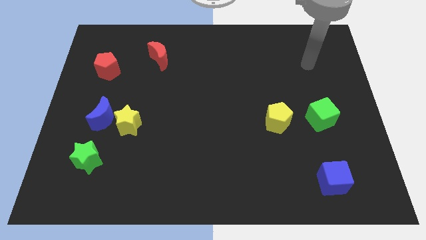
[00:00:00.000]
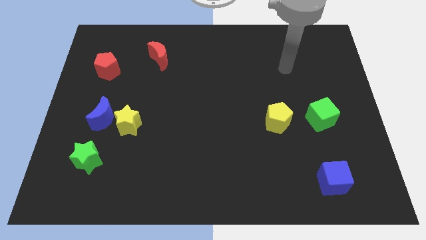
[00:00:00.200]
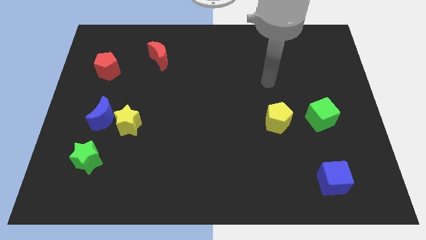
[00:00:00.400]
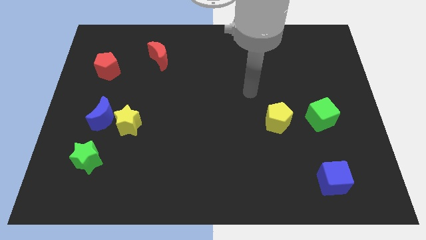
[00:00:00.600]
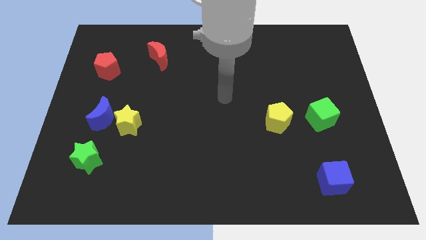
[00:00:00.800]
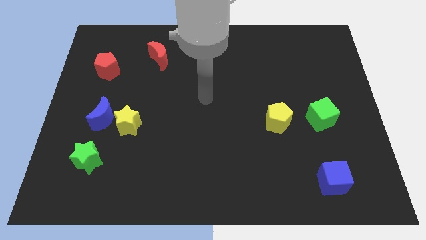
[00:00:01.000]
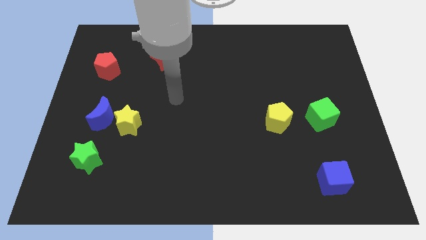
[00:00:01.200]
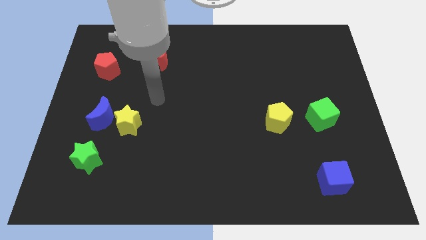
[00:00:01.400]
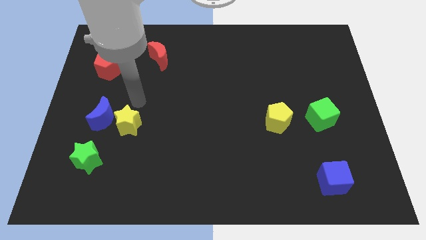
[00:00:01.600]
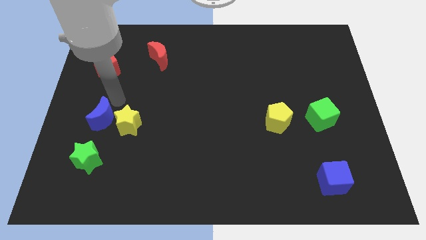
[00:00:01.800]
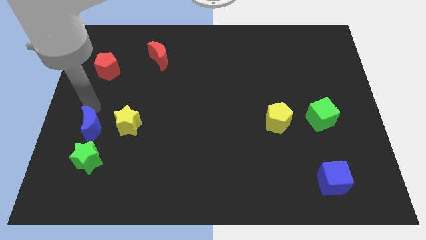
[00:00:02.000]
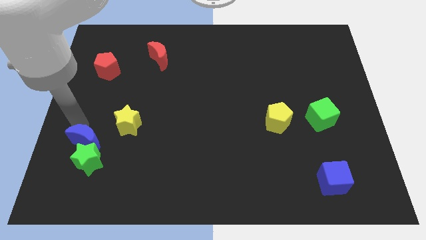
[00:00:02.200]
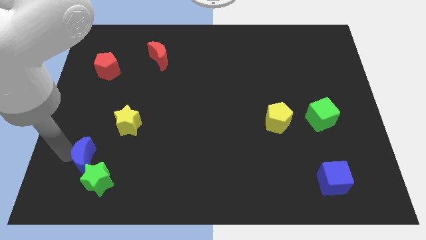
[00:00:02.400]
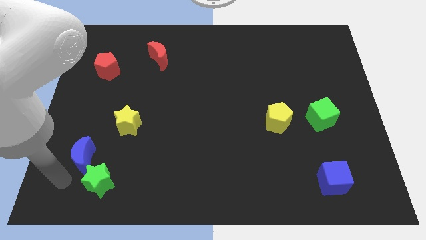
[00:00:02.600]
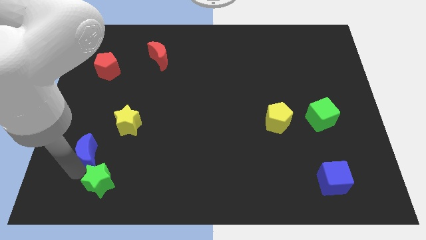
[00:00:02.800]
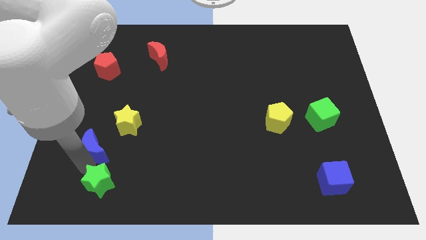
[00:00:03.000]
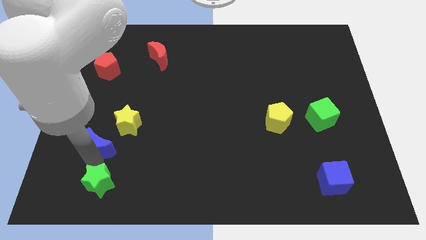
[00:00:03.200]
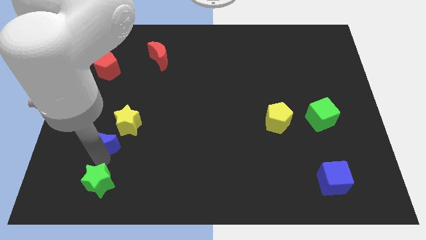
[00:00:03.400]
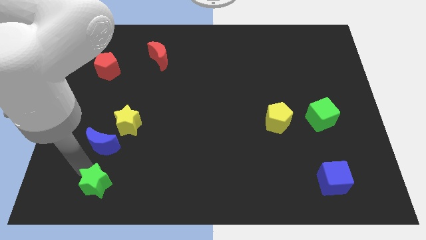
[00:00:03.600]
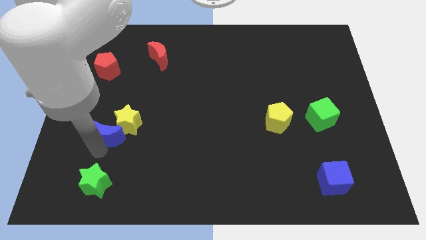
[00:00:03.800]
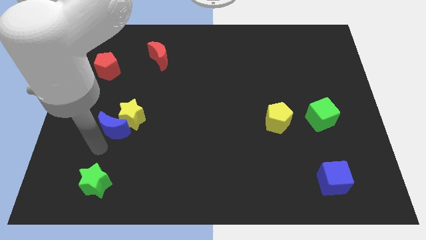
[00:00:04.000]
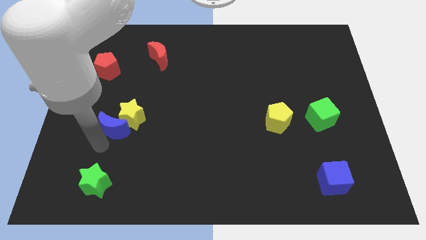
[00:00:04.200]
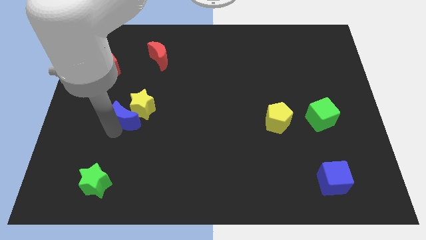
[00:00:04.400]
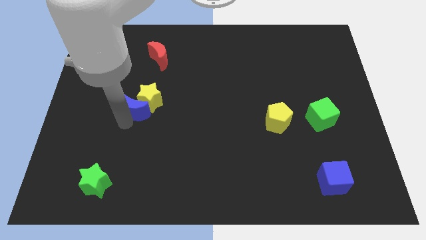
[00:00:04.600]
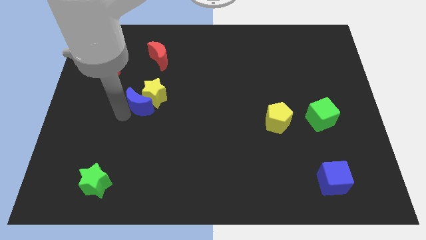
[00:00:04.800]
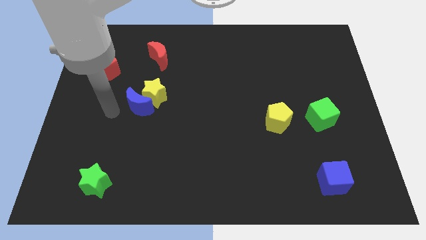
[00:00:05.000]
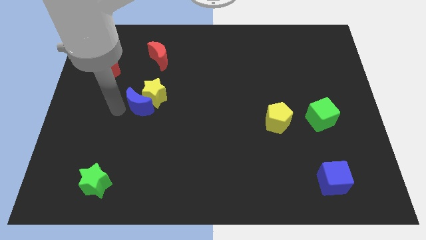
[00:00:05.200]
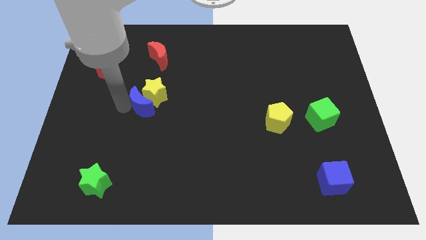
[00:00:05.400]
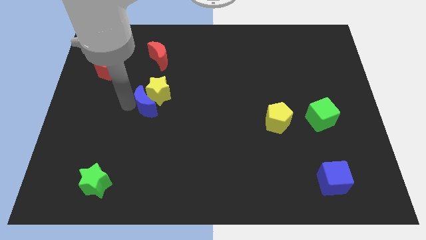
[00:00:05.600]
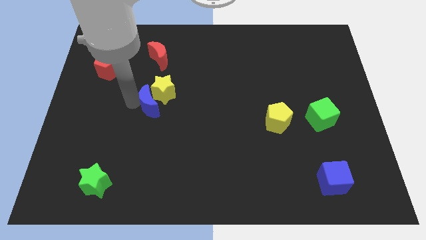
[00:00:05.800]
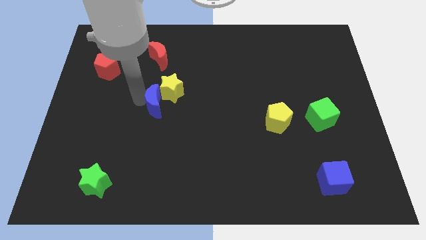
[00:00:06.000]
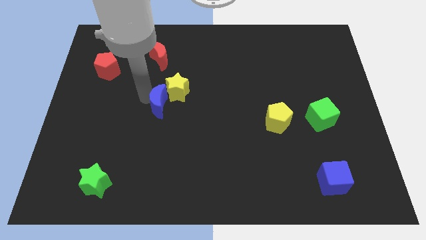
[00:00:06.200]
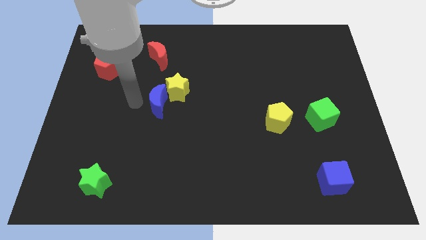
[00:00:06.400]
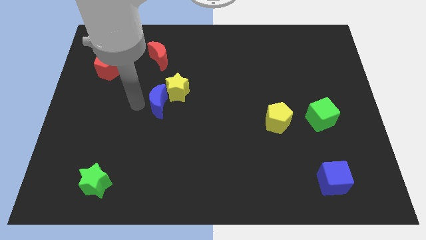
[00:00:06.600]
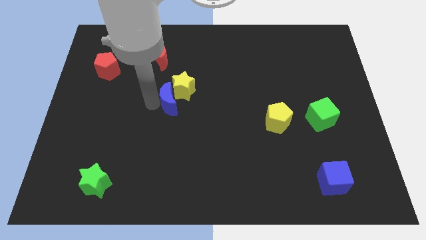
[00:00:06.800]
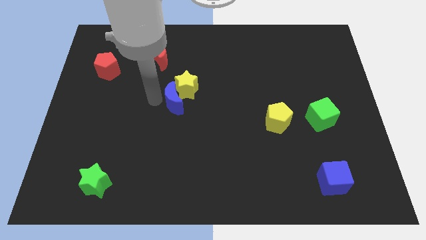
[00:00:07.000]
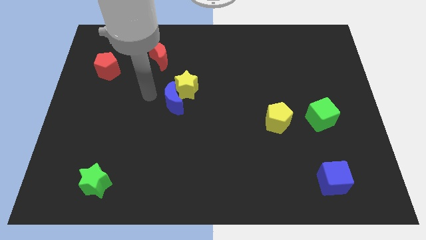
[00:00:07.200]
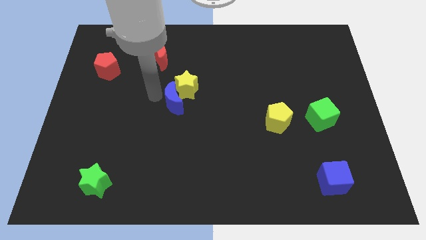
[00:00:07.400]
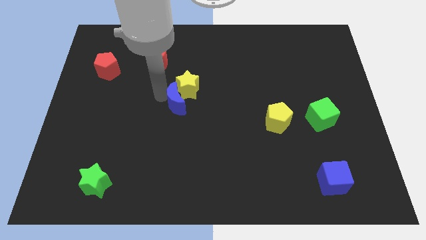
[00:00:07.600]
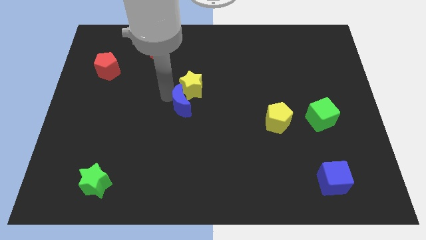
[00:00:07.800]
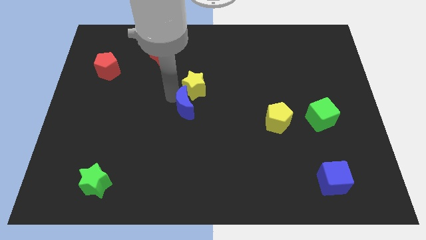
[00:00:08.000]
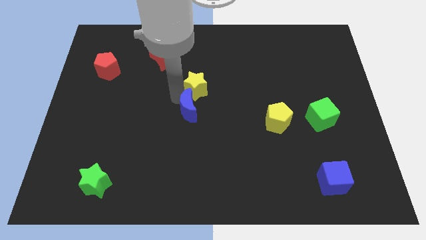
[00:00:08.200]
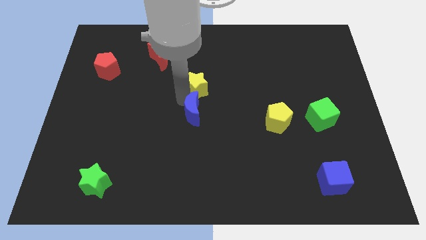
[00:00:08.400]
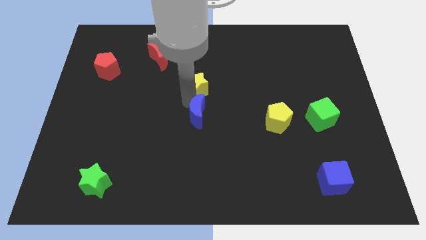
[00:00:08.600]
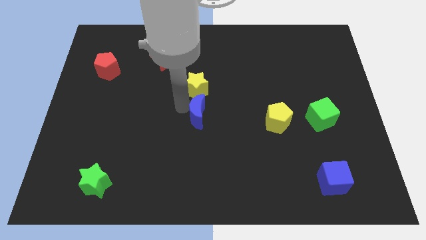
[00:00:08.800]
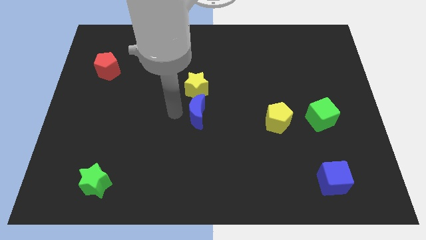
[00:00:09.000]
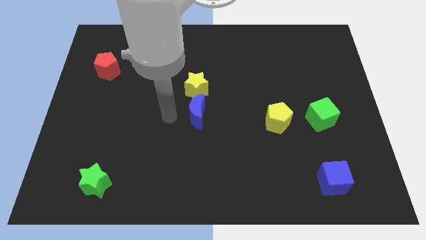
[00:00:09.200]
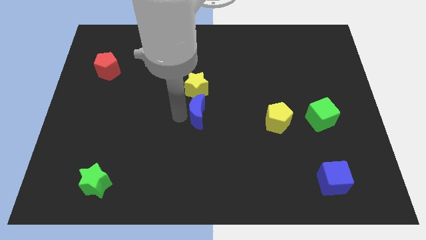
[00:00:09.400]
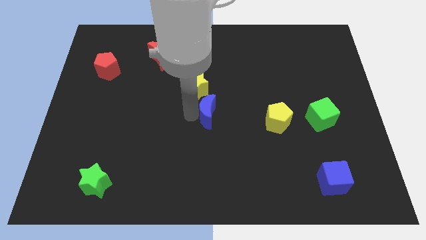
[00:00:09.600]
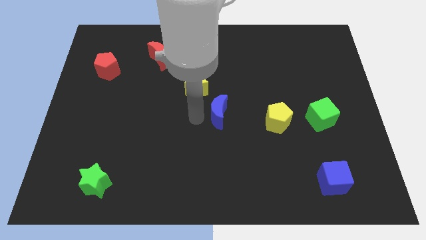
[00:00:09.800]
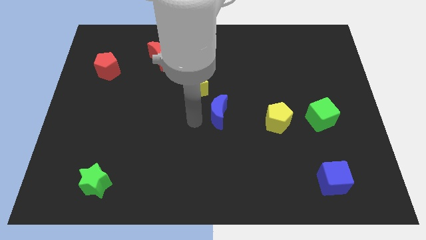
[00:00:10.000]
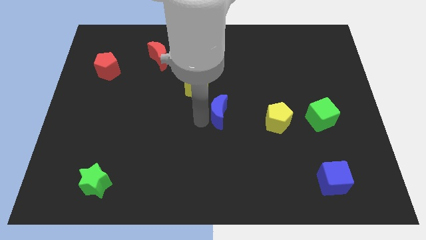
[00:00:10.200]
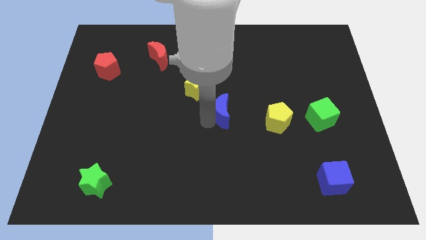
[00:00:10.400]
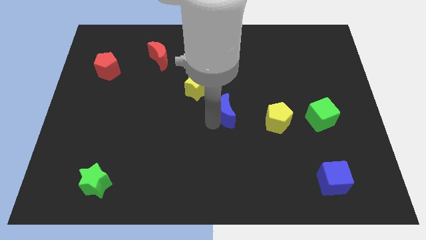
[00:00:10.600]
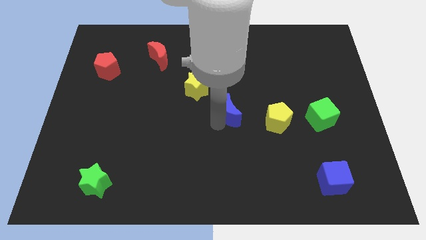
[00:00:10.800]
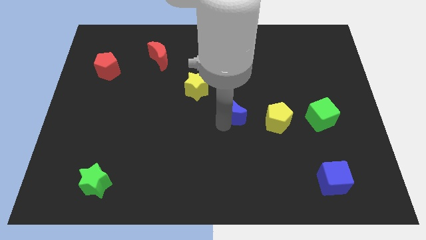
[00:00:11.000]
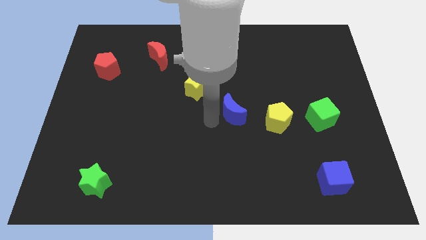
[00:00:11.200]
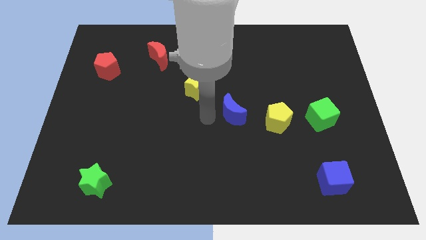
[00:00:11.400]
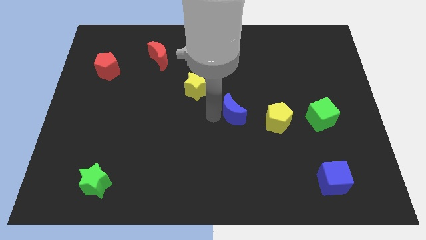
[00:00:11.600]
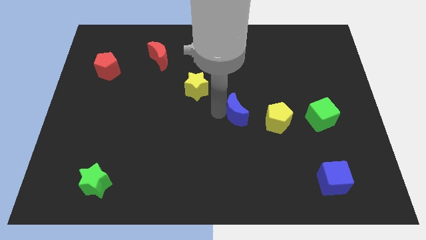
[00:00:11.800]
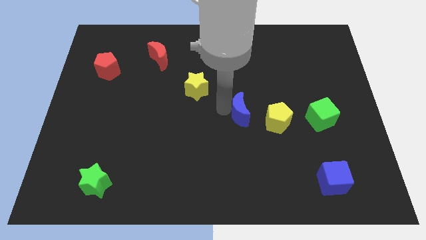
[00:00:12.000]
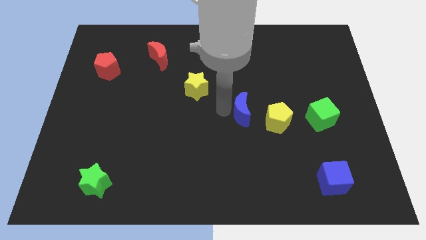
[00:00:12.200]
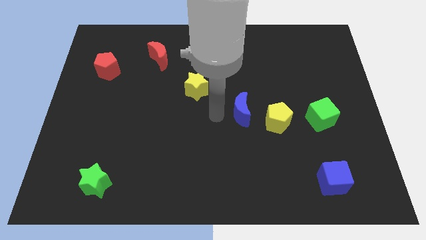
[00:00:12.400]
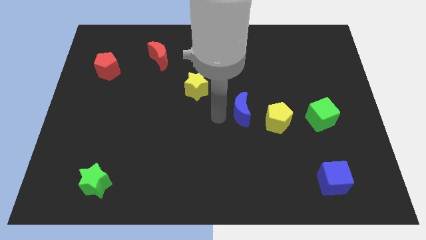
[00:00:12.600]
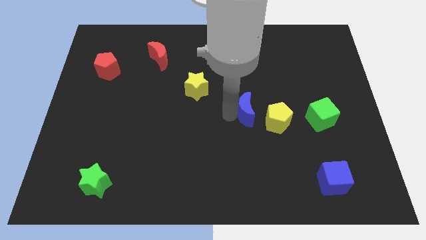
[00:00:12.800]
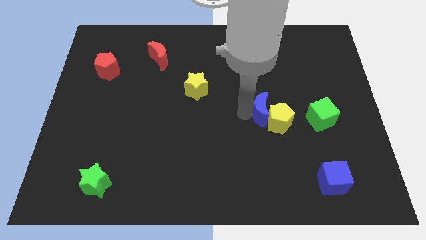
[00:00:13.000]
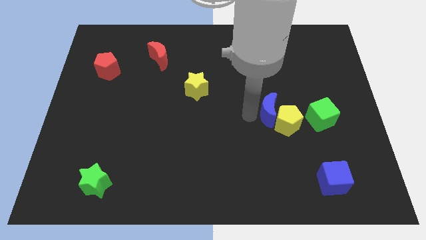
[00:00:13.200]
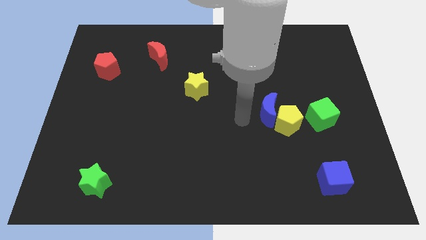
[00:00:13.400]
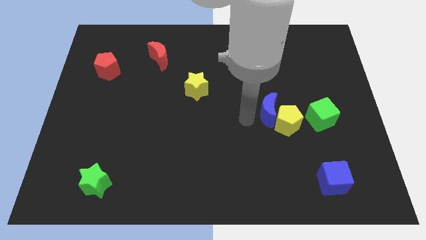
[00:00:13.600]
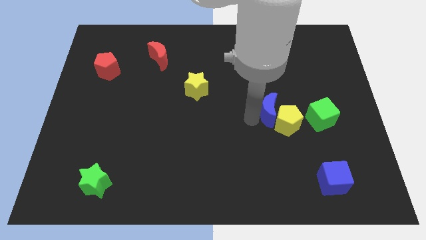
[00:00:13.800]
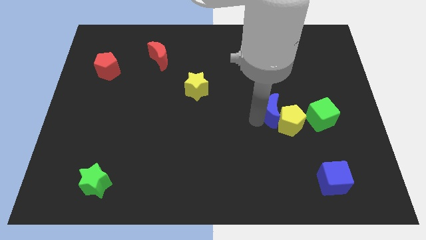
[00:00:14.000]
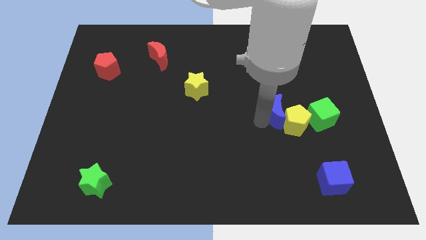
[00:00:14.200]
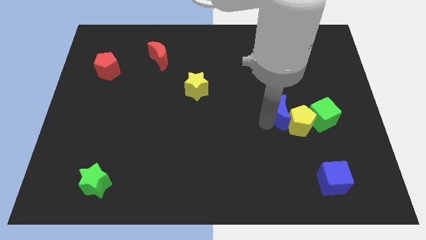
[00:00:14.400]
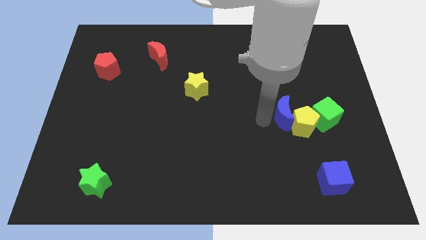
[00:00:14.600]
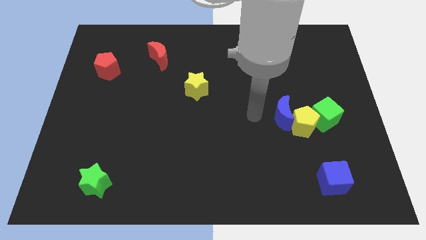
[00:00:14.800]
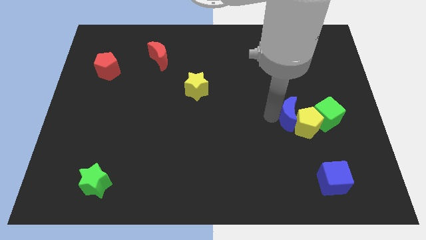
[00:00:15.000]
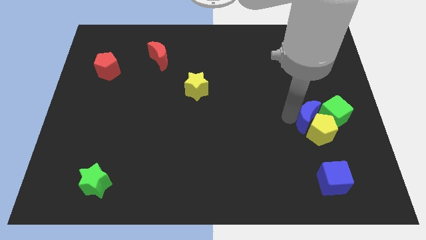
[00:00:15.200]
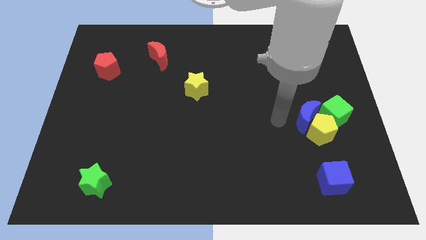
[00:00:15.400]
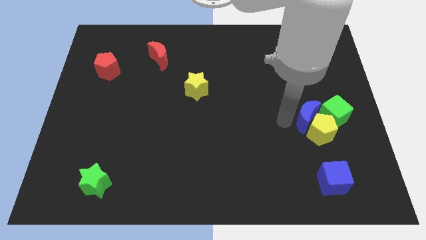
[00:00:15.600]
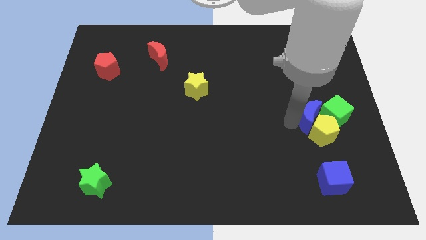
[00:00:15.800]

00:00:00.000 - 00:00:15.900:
put the blue moon to the green cube
